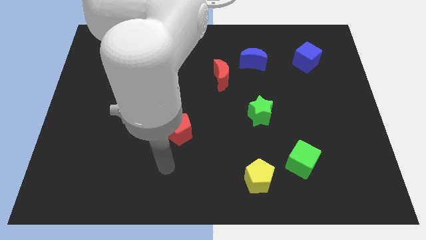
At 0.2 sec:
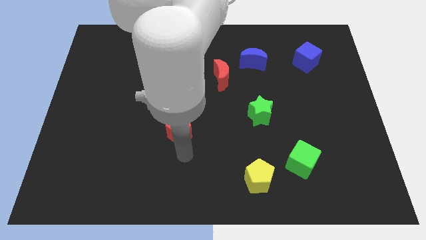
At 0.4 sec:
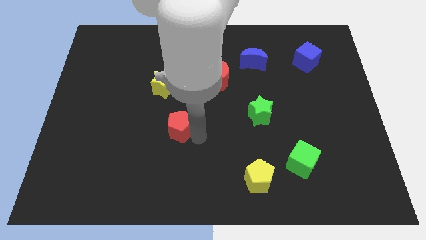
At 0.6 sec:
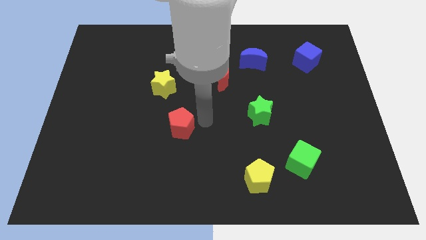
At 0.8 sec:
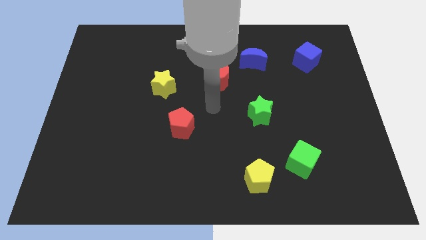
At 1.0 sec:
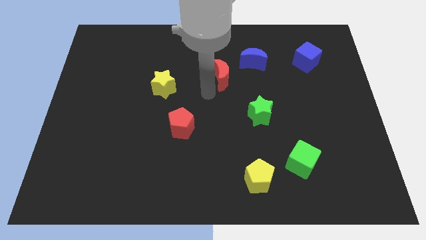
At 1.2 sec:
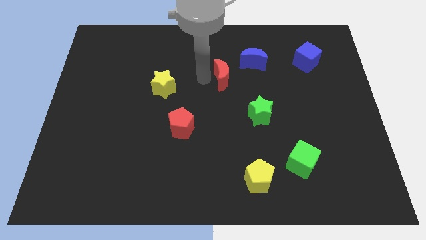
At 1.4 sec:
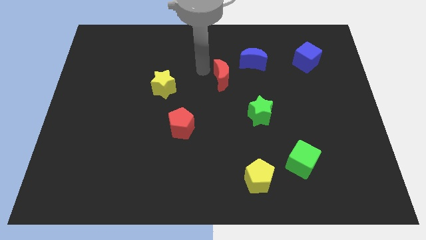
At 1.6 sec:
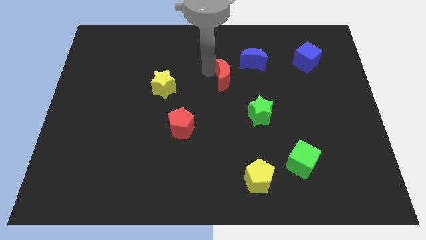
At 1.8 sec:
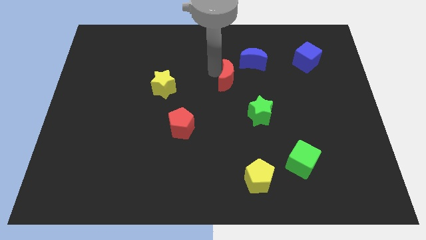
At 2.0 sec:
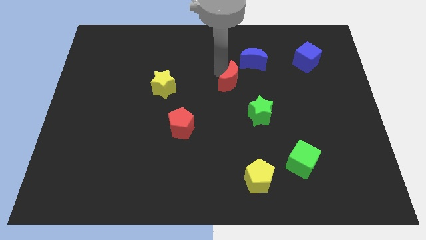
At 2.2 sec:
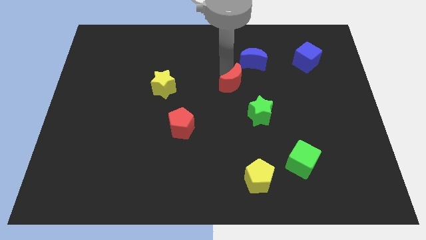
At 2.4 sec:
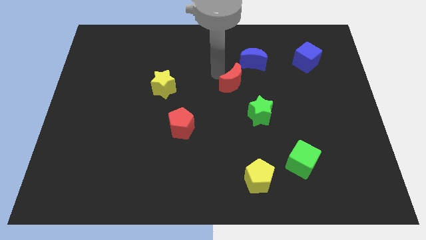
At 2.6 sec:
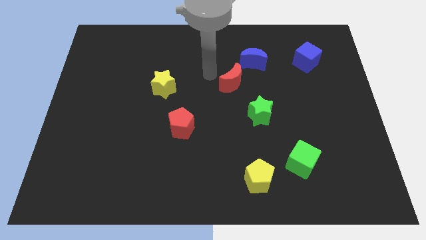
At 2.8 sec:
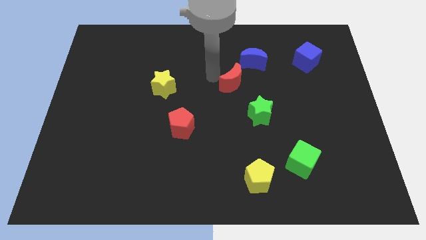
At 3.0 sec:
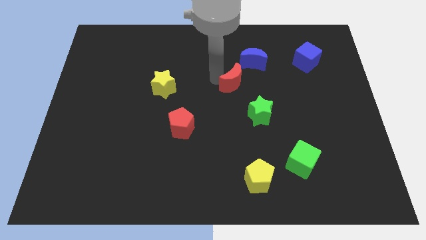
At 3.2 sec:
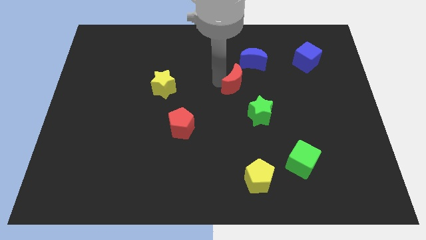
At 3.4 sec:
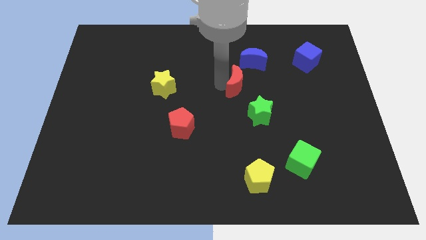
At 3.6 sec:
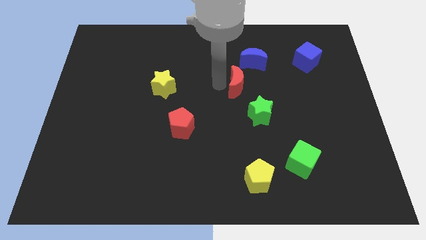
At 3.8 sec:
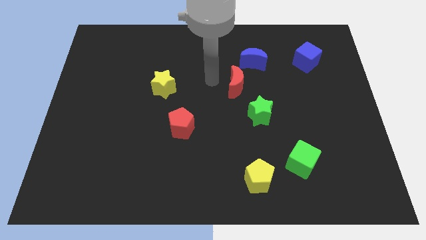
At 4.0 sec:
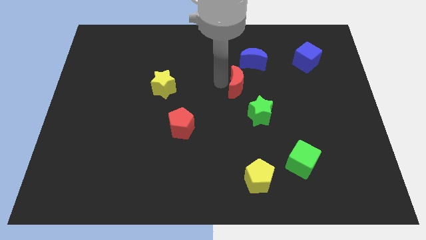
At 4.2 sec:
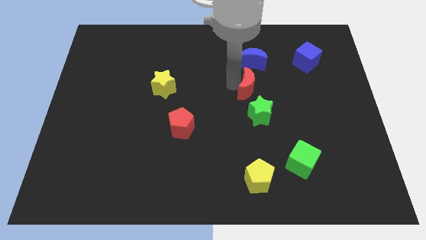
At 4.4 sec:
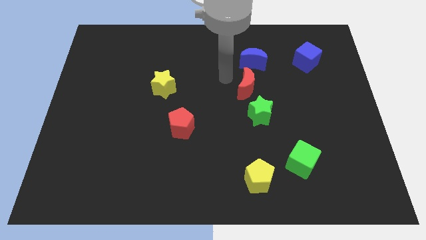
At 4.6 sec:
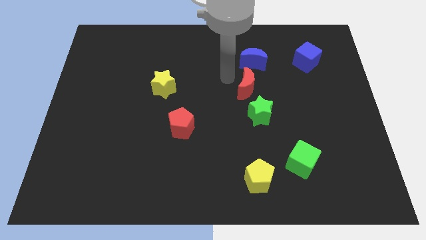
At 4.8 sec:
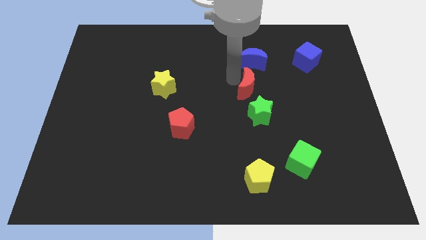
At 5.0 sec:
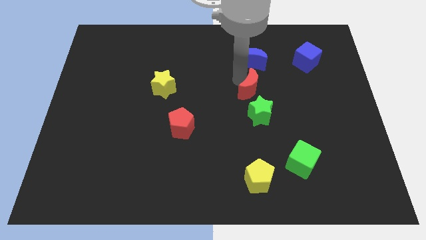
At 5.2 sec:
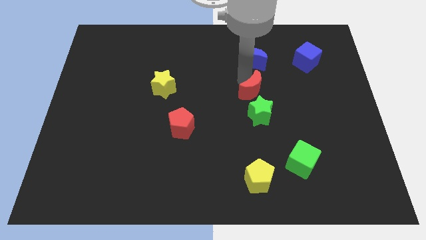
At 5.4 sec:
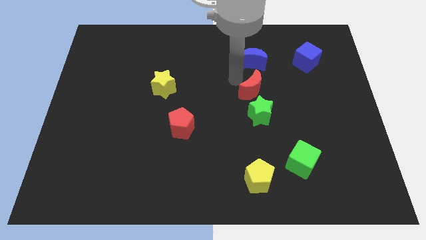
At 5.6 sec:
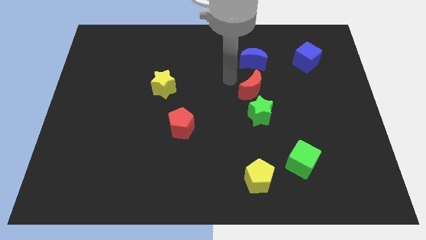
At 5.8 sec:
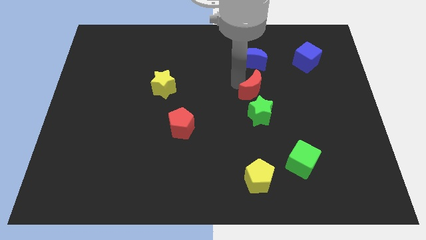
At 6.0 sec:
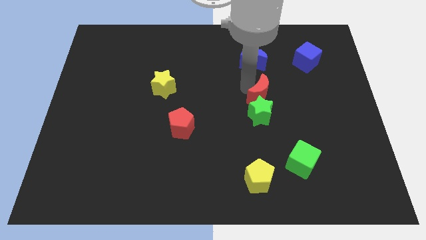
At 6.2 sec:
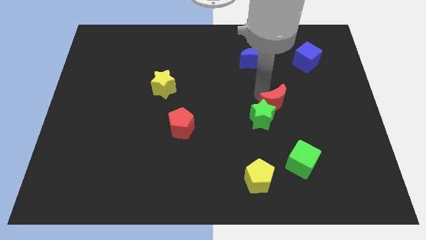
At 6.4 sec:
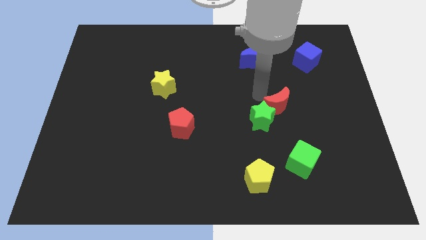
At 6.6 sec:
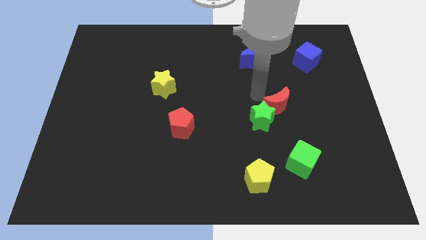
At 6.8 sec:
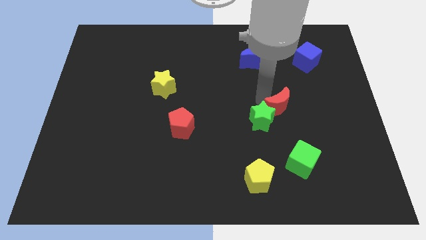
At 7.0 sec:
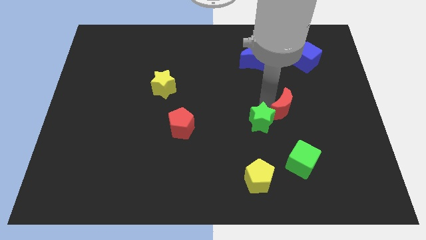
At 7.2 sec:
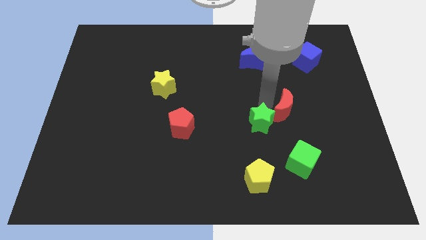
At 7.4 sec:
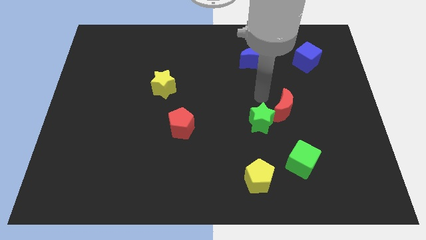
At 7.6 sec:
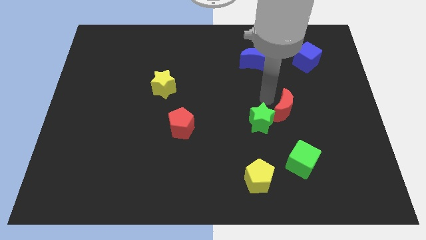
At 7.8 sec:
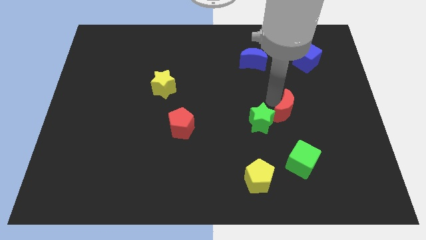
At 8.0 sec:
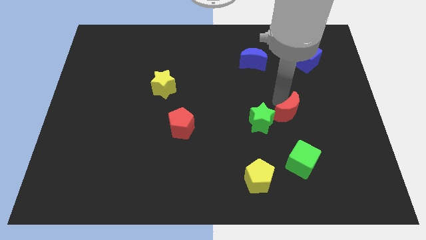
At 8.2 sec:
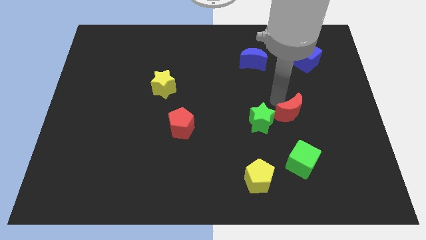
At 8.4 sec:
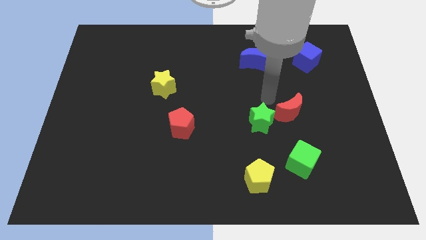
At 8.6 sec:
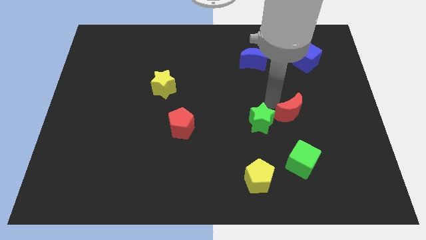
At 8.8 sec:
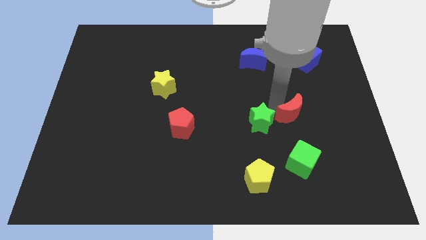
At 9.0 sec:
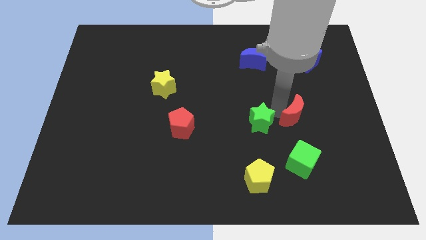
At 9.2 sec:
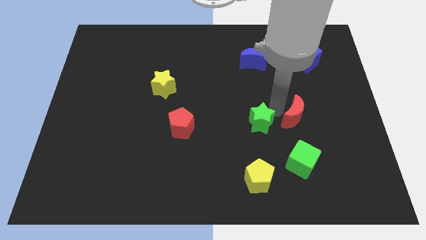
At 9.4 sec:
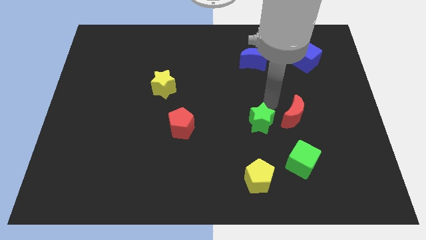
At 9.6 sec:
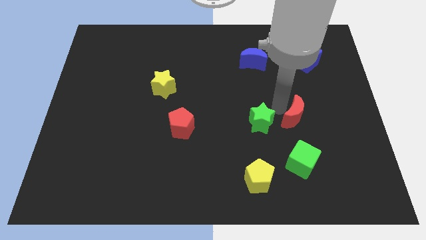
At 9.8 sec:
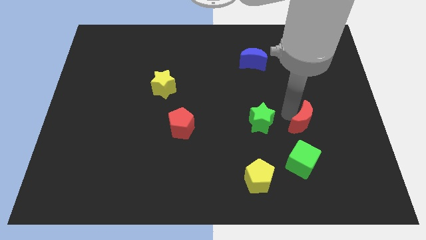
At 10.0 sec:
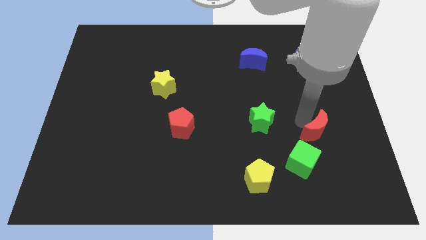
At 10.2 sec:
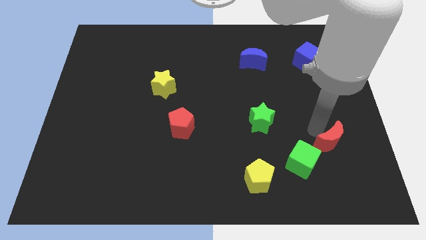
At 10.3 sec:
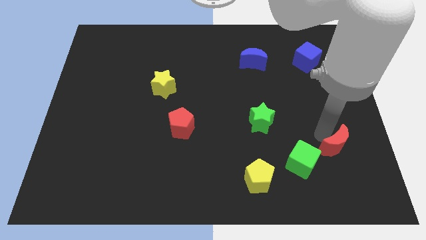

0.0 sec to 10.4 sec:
move the red moon to the right of the green cube

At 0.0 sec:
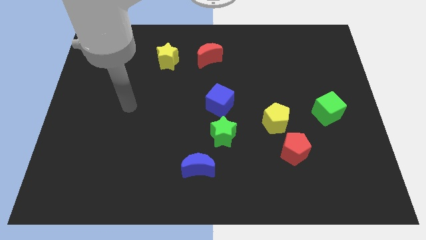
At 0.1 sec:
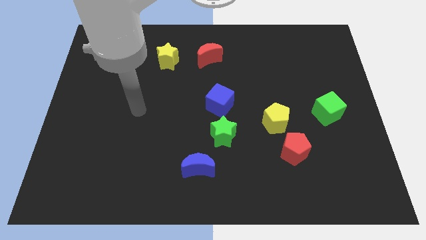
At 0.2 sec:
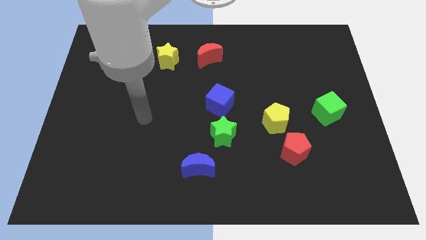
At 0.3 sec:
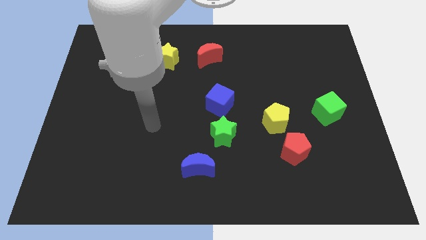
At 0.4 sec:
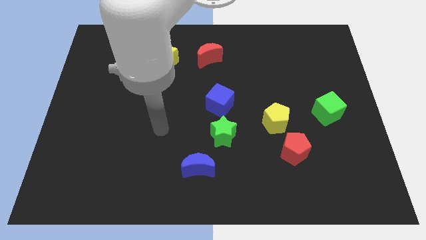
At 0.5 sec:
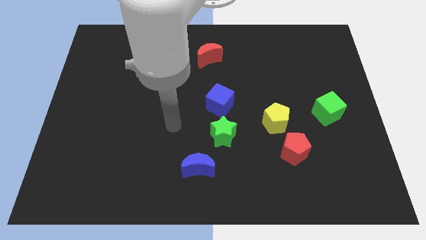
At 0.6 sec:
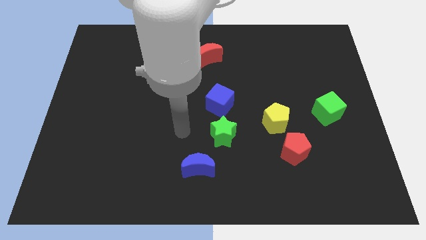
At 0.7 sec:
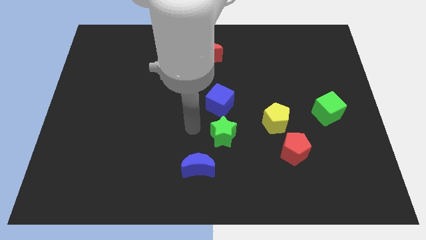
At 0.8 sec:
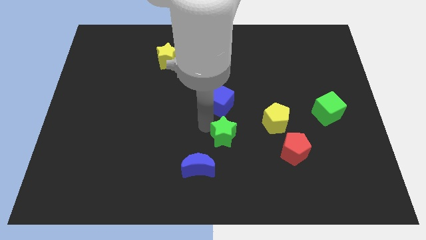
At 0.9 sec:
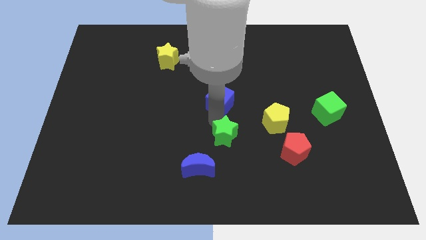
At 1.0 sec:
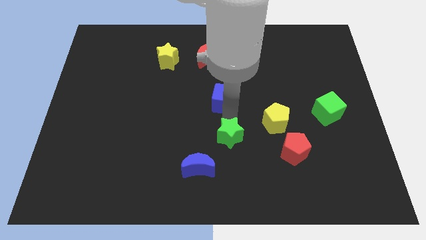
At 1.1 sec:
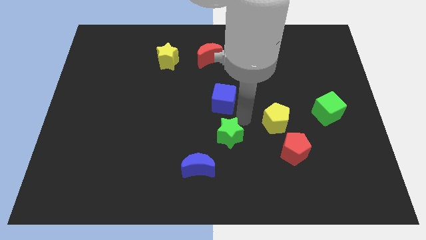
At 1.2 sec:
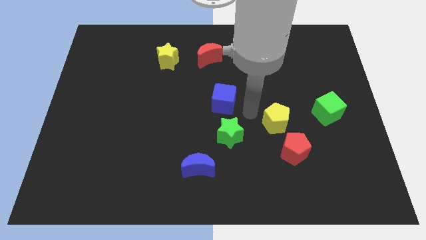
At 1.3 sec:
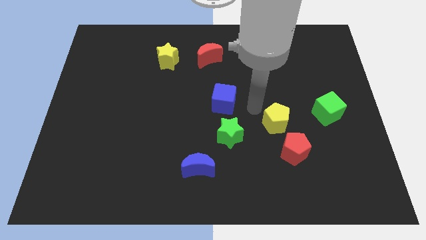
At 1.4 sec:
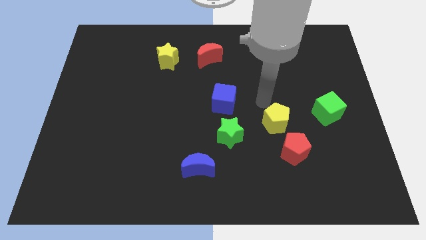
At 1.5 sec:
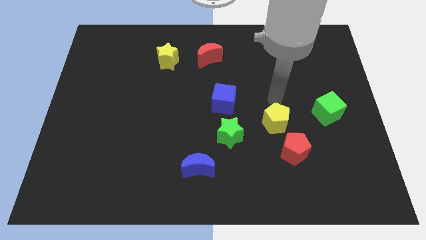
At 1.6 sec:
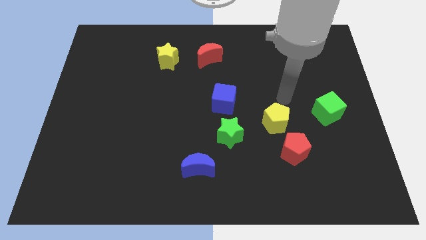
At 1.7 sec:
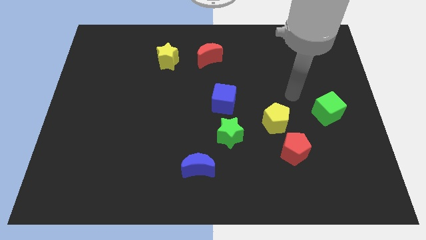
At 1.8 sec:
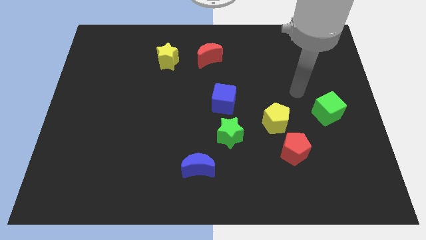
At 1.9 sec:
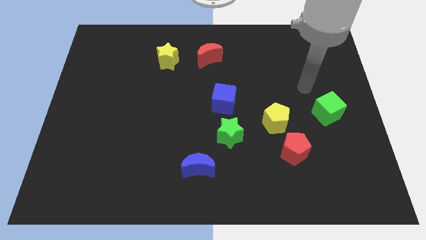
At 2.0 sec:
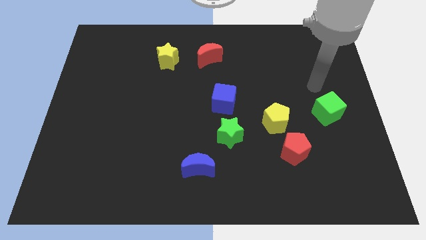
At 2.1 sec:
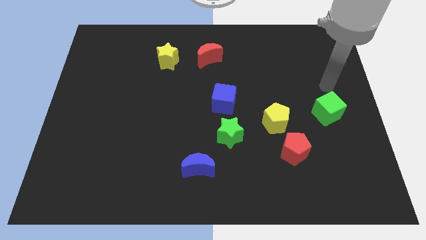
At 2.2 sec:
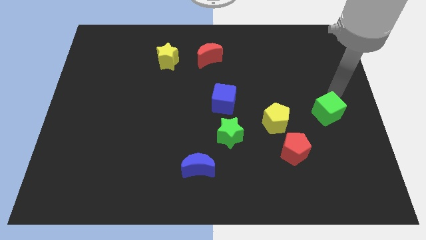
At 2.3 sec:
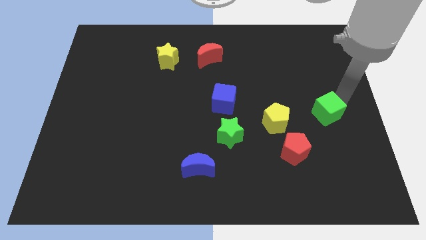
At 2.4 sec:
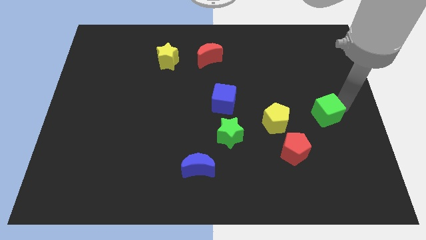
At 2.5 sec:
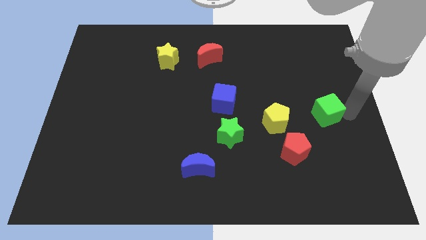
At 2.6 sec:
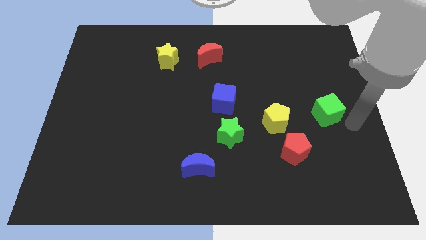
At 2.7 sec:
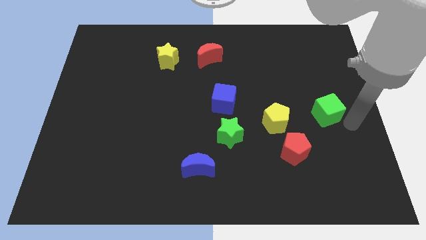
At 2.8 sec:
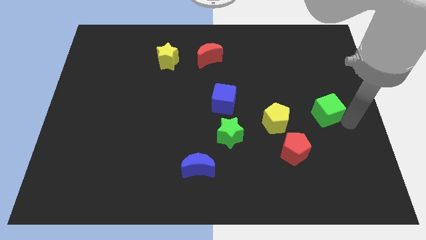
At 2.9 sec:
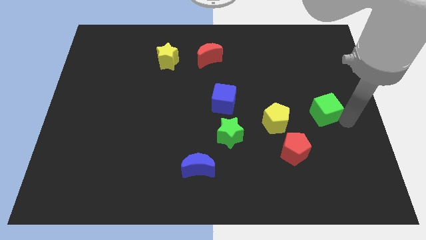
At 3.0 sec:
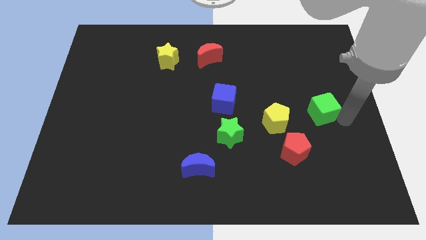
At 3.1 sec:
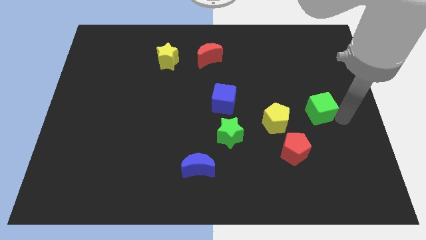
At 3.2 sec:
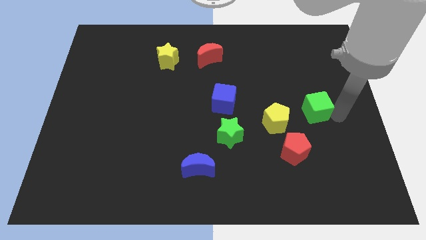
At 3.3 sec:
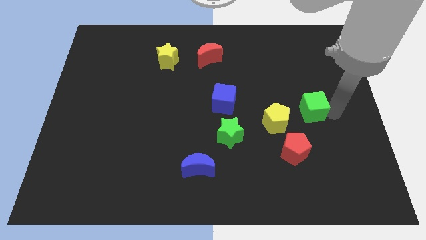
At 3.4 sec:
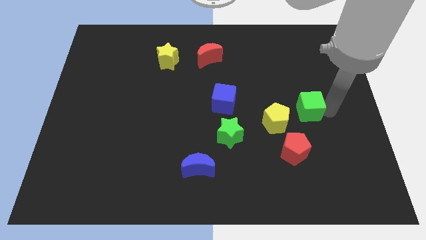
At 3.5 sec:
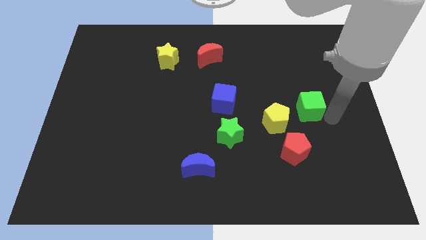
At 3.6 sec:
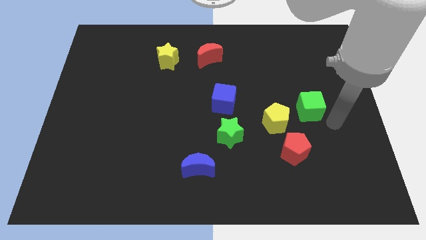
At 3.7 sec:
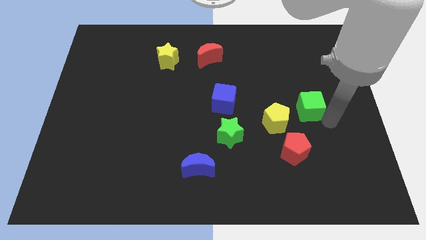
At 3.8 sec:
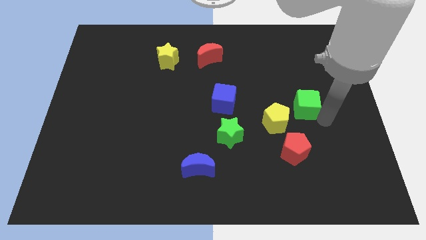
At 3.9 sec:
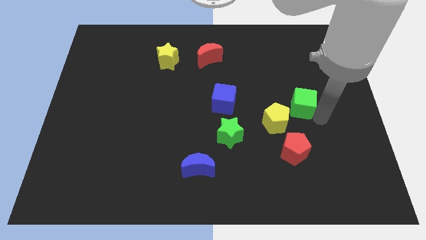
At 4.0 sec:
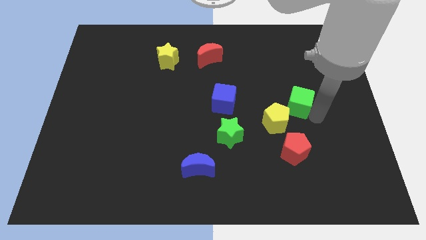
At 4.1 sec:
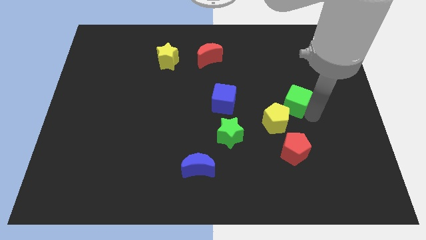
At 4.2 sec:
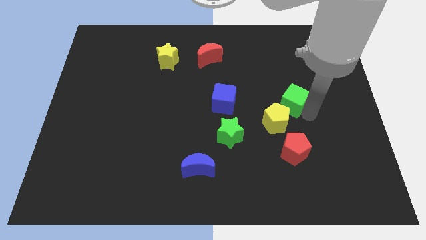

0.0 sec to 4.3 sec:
push the green cube to the top of the yellow pentagon
